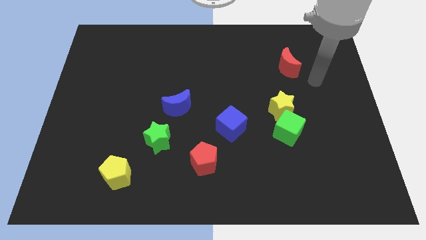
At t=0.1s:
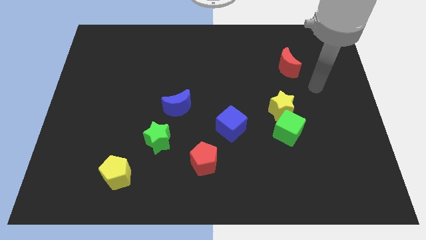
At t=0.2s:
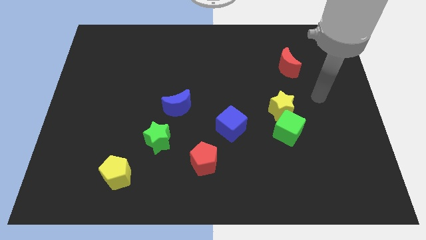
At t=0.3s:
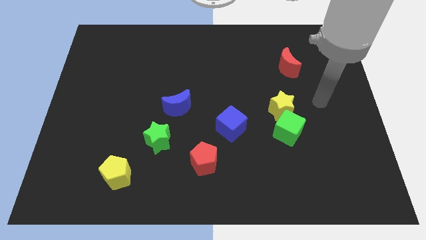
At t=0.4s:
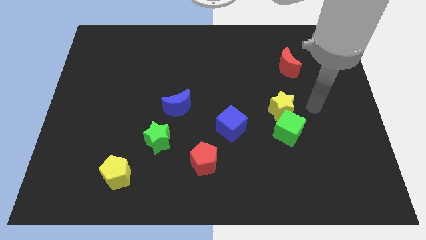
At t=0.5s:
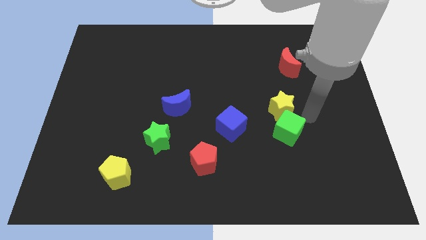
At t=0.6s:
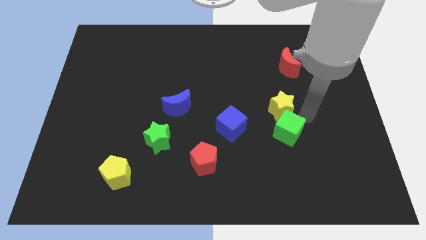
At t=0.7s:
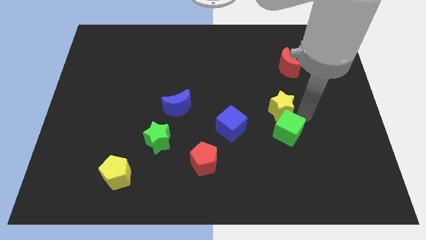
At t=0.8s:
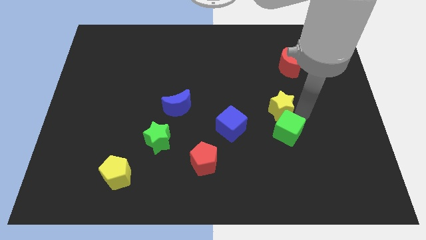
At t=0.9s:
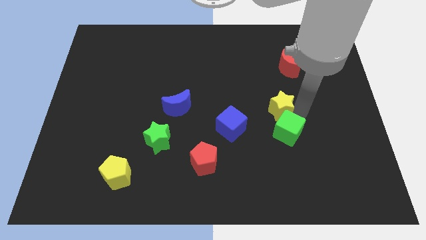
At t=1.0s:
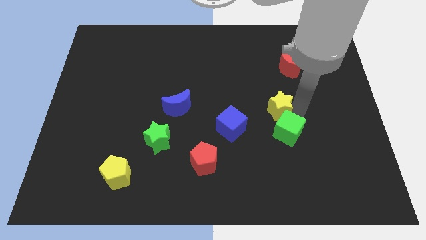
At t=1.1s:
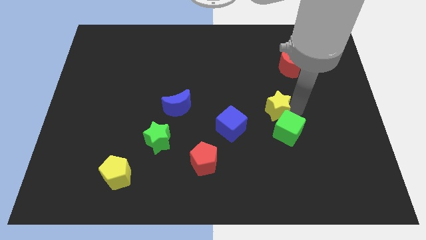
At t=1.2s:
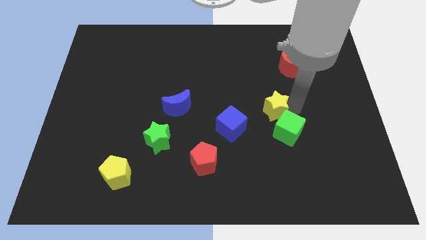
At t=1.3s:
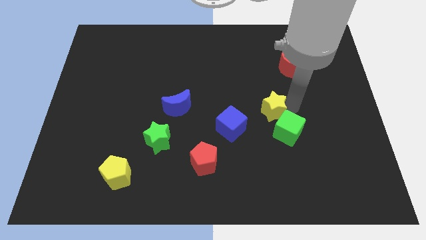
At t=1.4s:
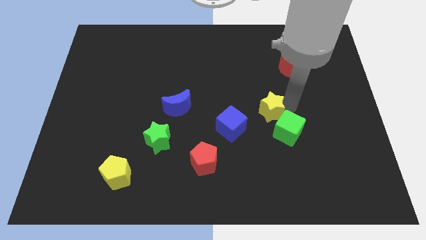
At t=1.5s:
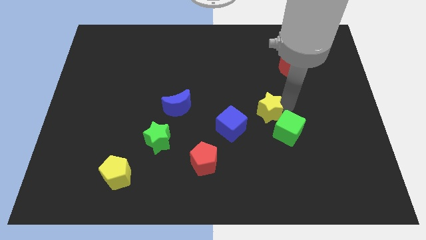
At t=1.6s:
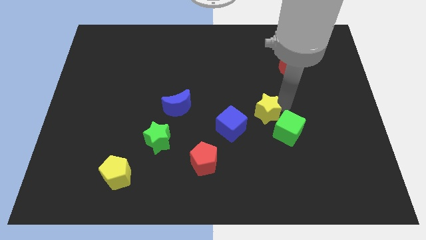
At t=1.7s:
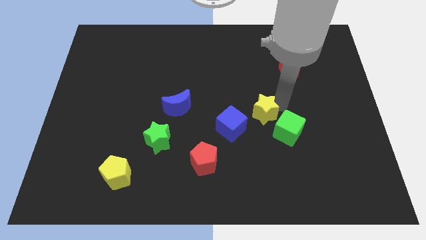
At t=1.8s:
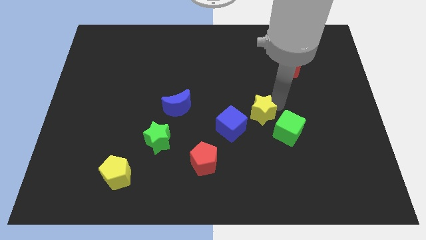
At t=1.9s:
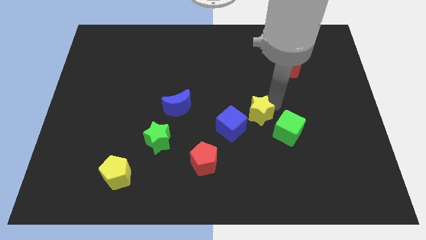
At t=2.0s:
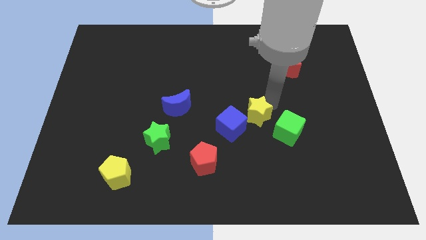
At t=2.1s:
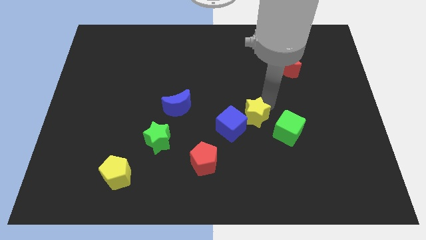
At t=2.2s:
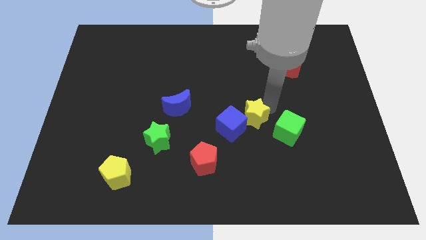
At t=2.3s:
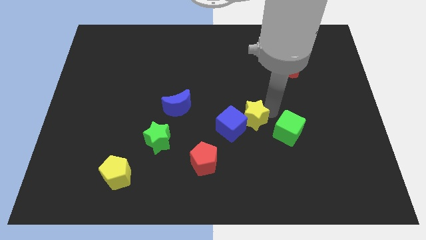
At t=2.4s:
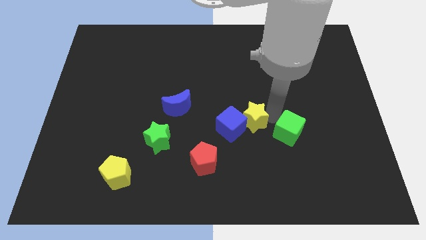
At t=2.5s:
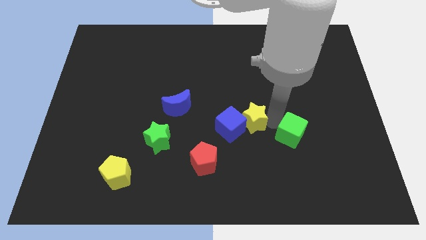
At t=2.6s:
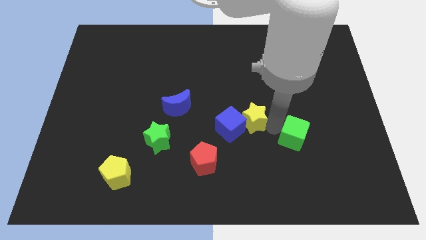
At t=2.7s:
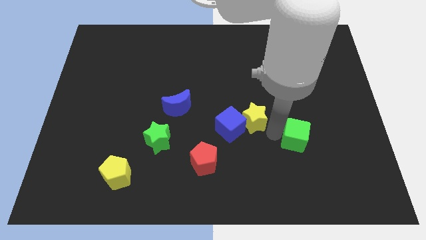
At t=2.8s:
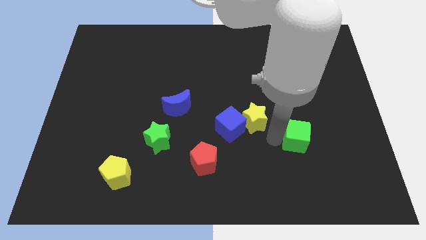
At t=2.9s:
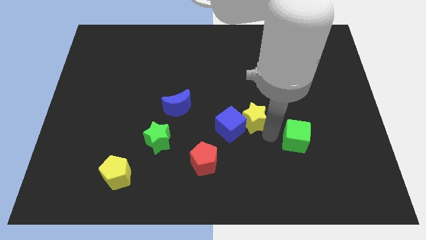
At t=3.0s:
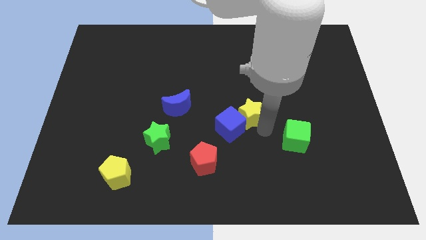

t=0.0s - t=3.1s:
push the yellow star left a little bit

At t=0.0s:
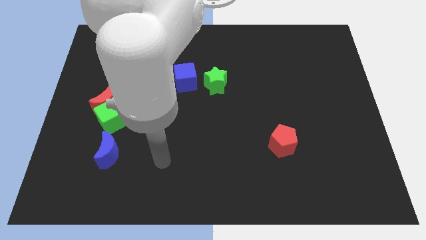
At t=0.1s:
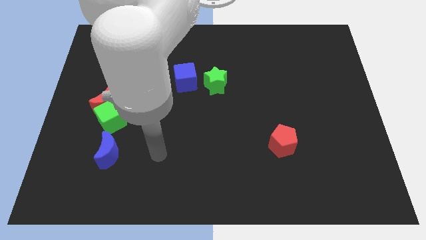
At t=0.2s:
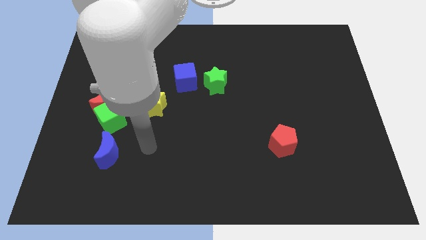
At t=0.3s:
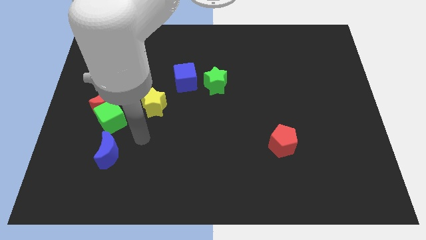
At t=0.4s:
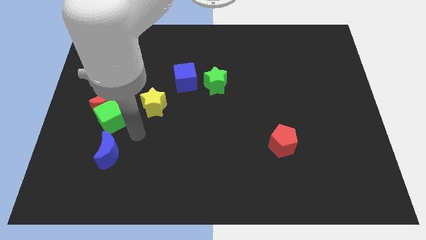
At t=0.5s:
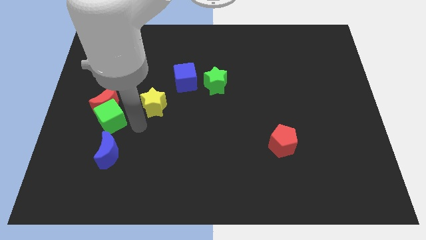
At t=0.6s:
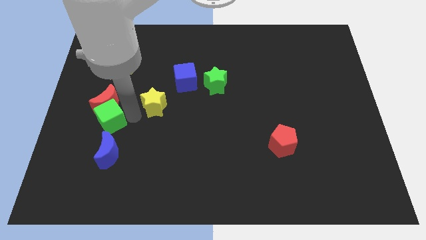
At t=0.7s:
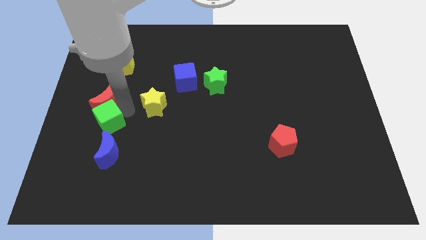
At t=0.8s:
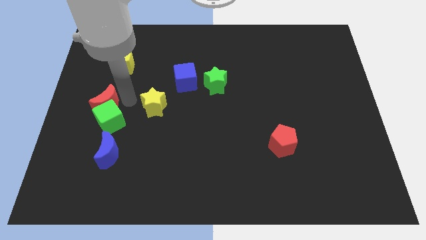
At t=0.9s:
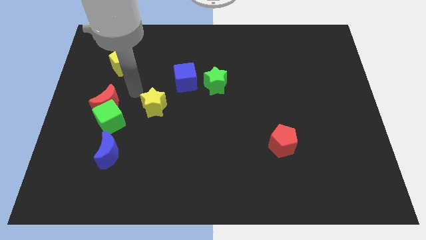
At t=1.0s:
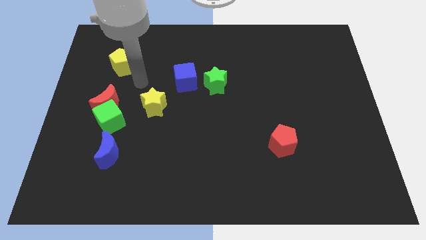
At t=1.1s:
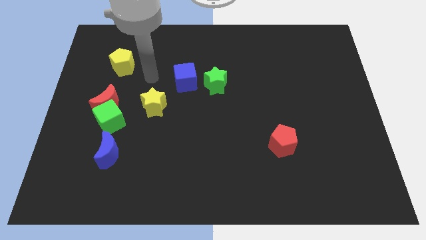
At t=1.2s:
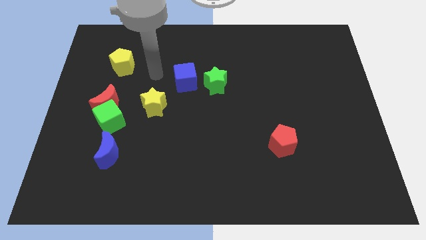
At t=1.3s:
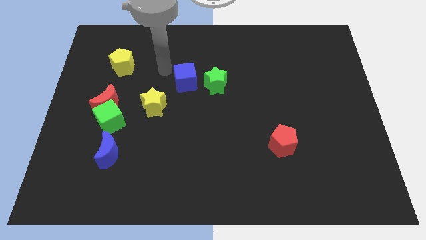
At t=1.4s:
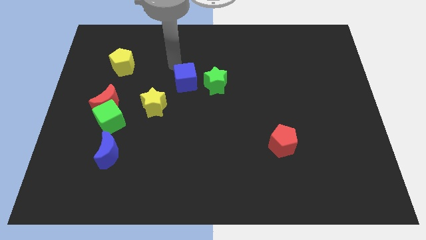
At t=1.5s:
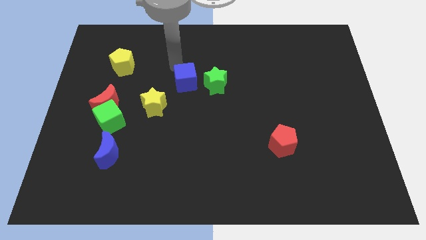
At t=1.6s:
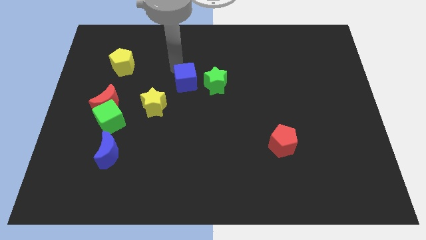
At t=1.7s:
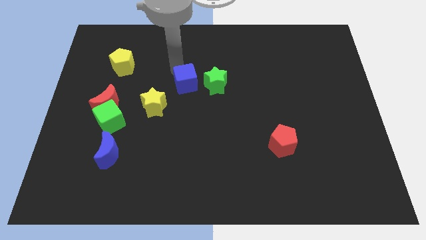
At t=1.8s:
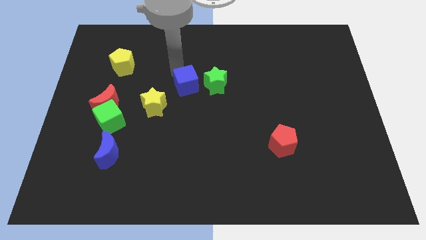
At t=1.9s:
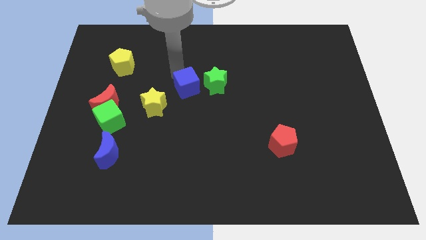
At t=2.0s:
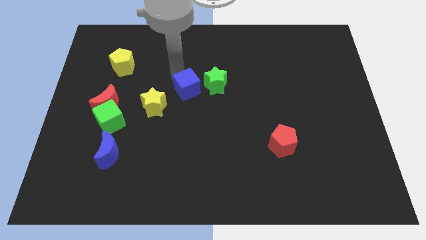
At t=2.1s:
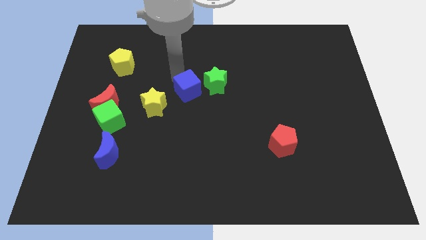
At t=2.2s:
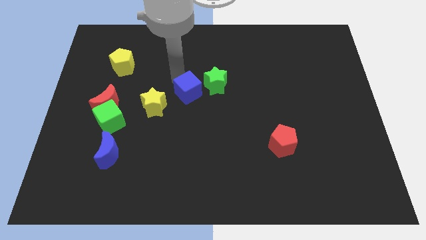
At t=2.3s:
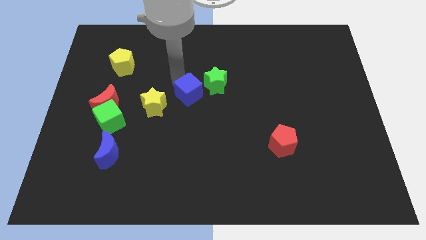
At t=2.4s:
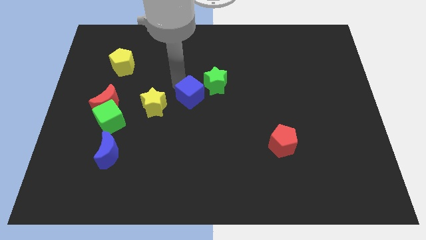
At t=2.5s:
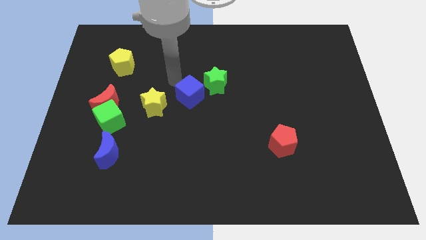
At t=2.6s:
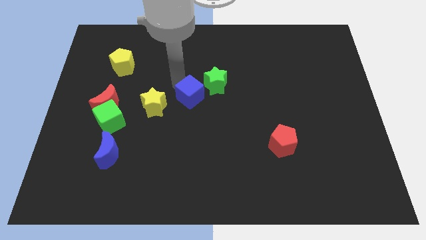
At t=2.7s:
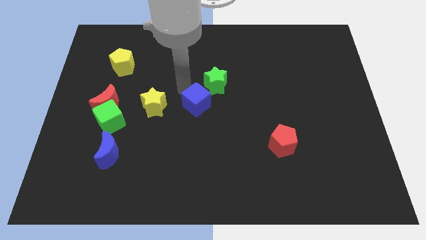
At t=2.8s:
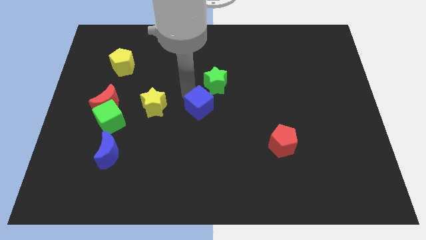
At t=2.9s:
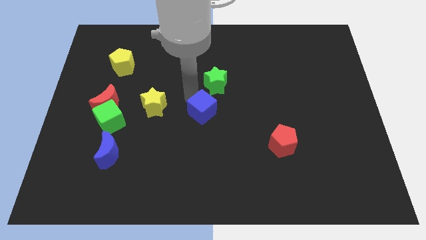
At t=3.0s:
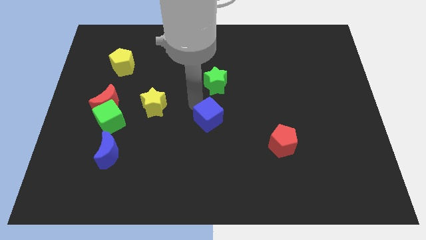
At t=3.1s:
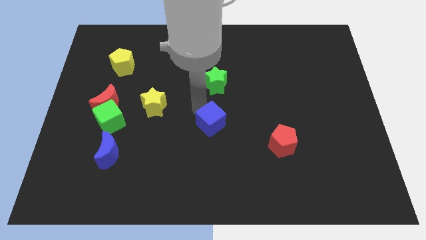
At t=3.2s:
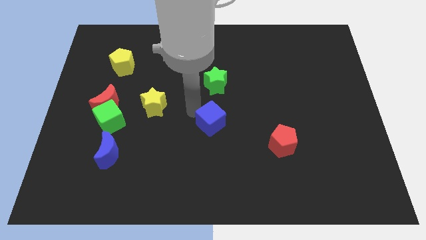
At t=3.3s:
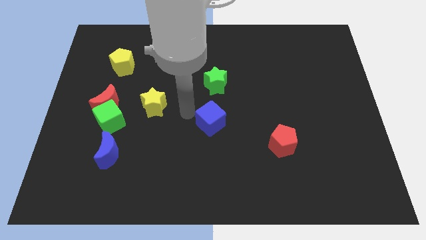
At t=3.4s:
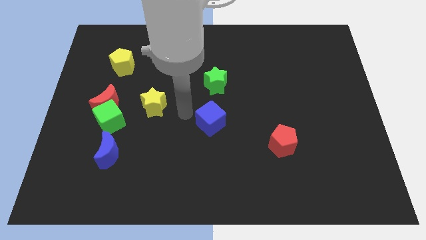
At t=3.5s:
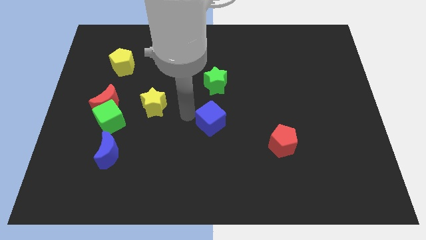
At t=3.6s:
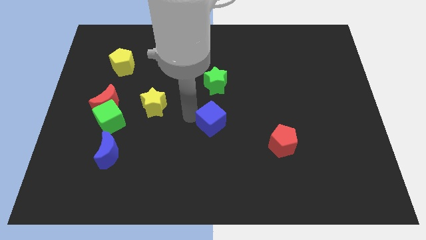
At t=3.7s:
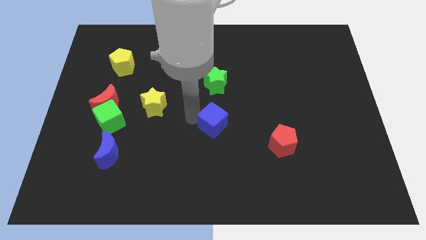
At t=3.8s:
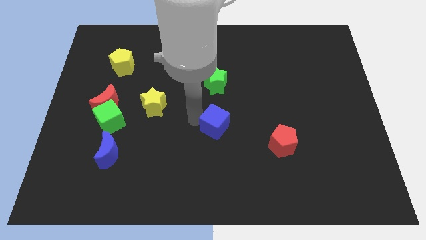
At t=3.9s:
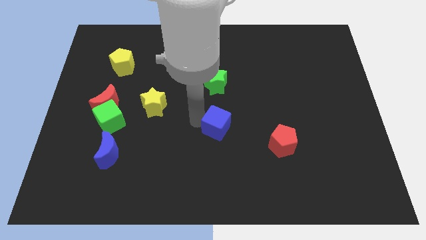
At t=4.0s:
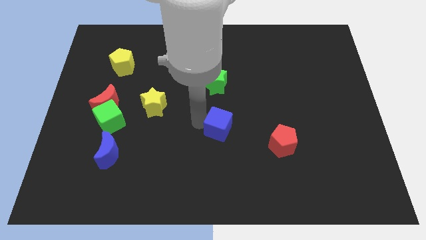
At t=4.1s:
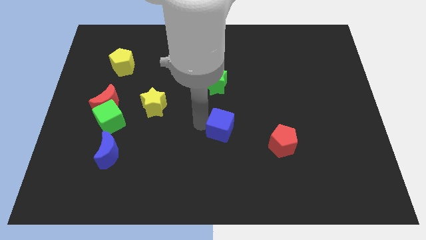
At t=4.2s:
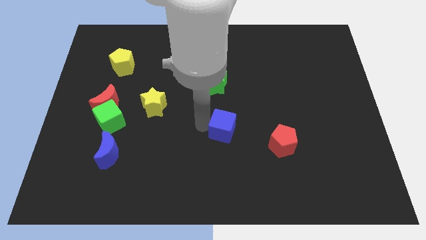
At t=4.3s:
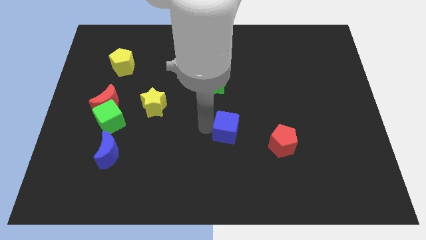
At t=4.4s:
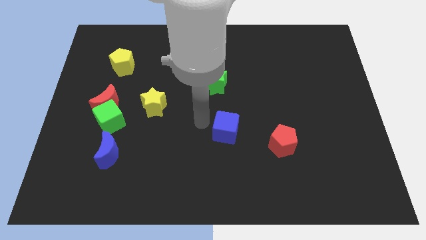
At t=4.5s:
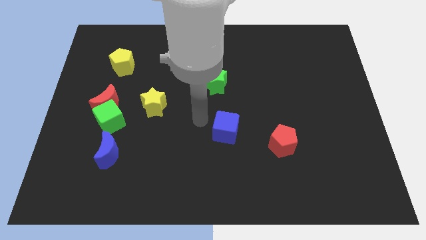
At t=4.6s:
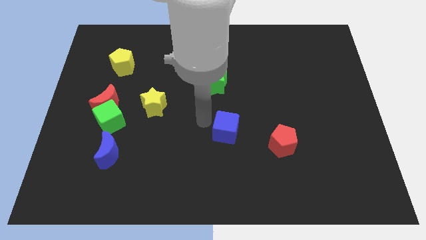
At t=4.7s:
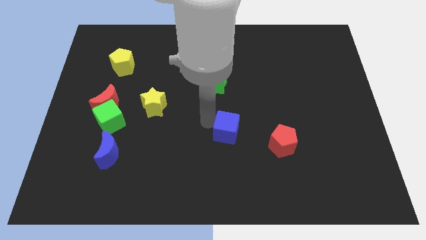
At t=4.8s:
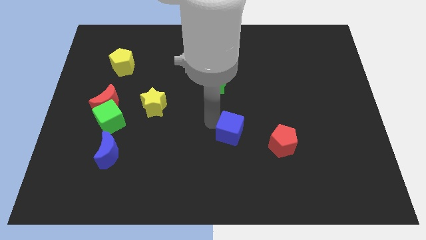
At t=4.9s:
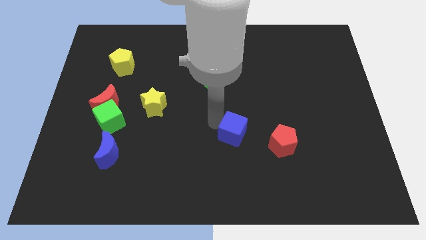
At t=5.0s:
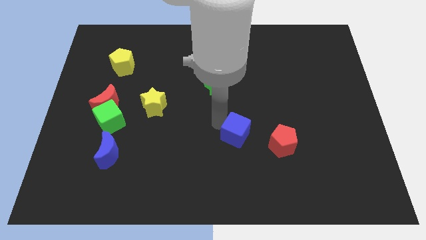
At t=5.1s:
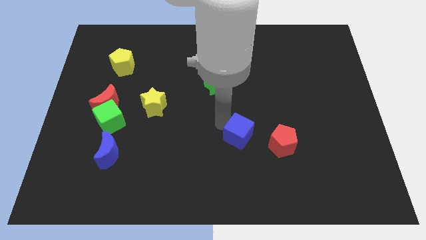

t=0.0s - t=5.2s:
move the blue cube diagonally down and right
